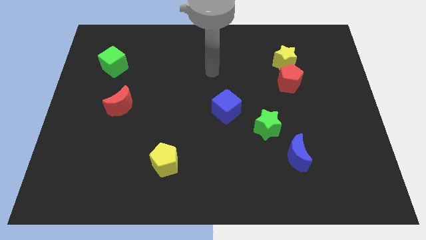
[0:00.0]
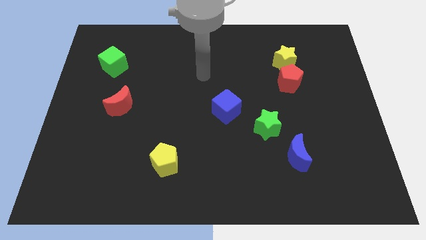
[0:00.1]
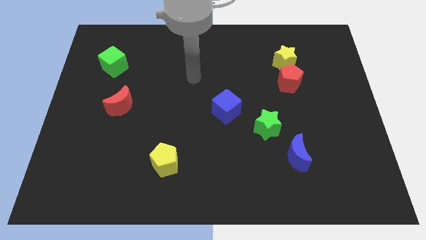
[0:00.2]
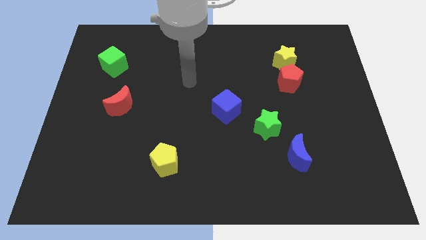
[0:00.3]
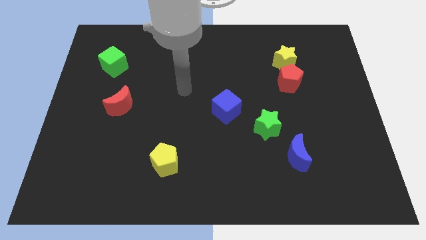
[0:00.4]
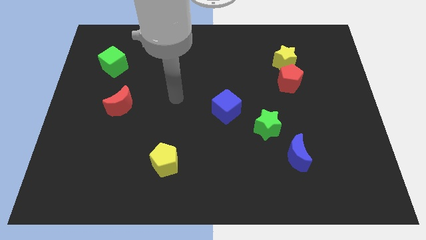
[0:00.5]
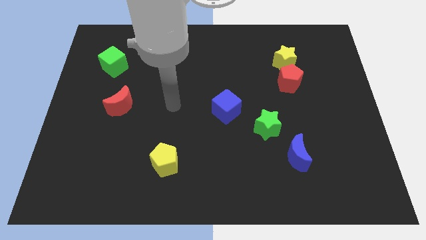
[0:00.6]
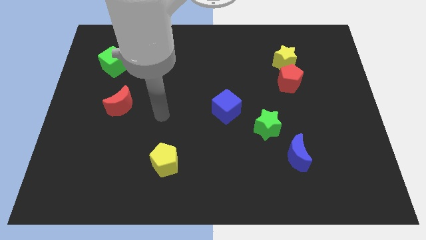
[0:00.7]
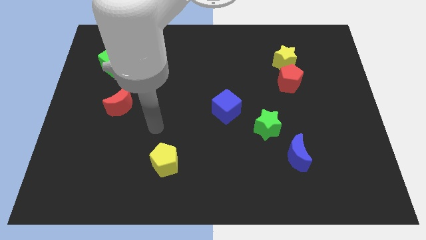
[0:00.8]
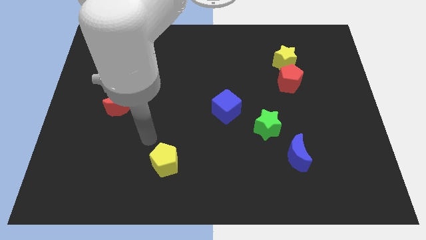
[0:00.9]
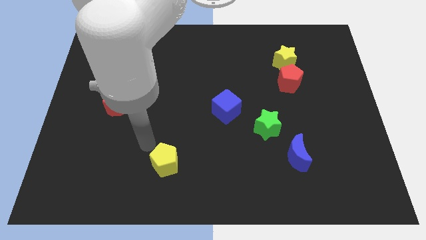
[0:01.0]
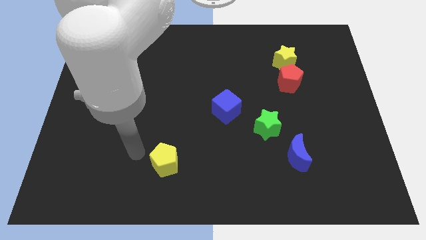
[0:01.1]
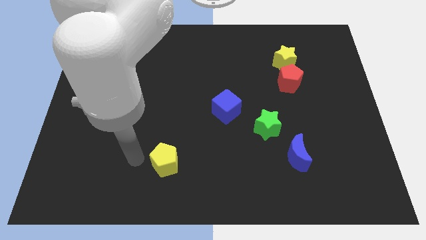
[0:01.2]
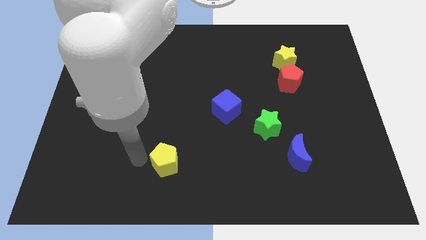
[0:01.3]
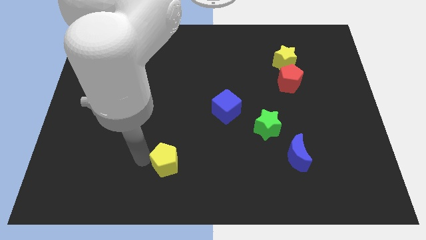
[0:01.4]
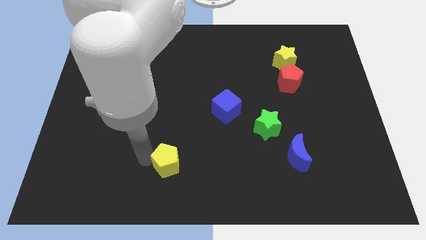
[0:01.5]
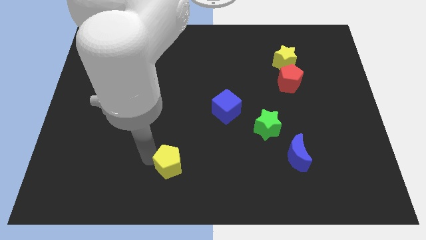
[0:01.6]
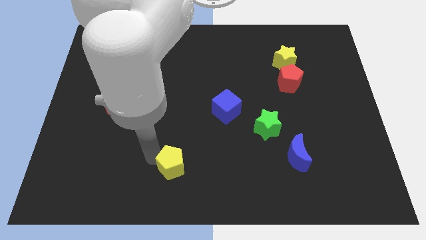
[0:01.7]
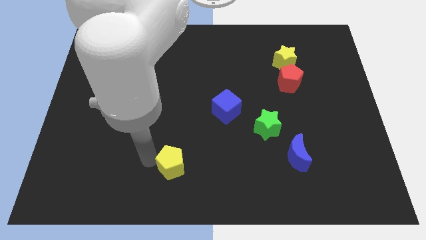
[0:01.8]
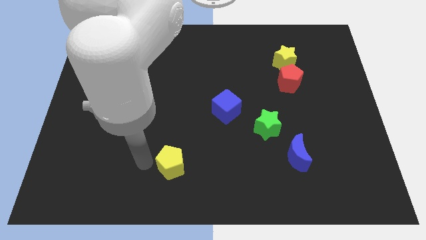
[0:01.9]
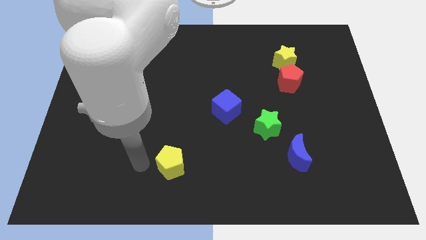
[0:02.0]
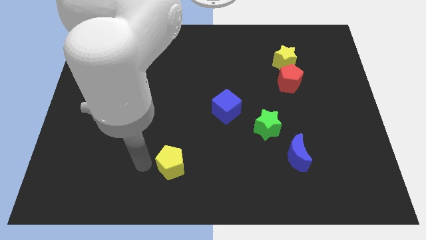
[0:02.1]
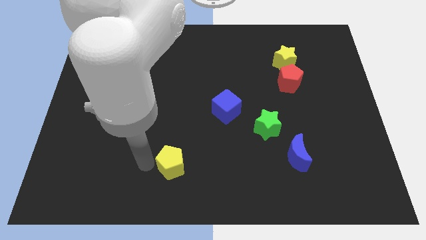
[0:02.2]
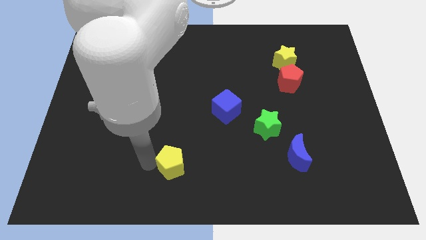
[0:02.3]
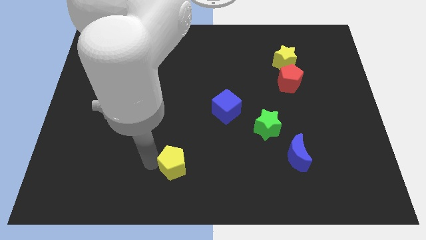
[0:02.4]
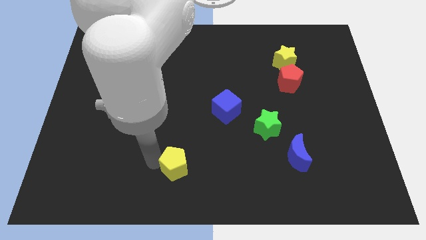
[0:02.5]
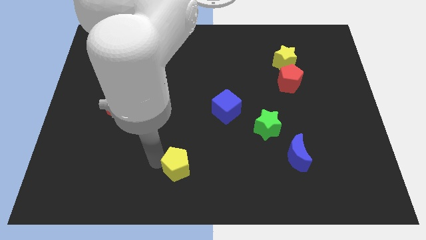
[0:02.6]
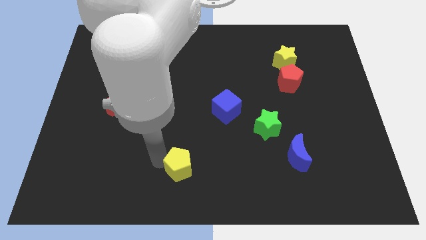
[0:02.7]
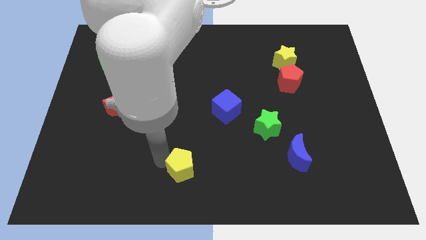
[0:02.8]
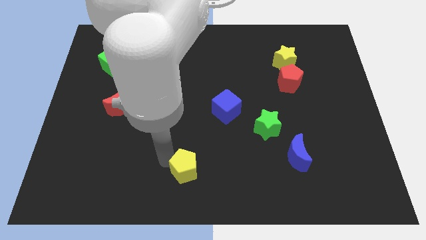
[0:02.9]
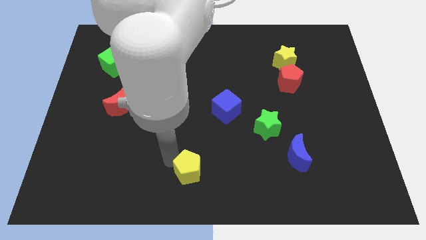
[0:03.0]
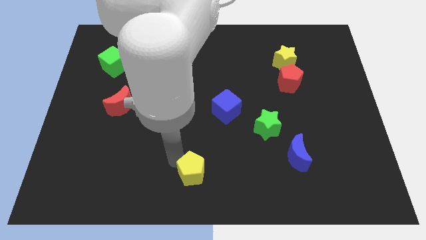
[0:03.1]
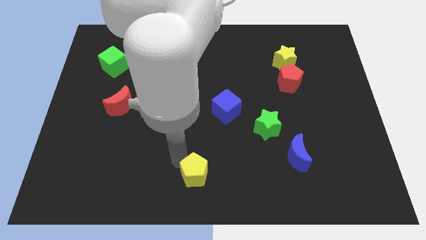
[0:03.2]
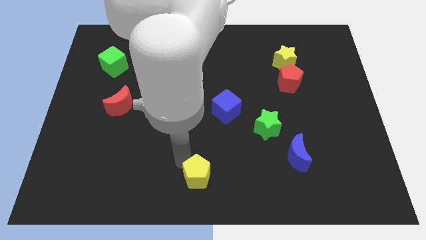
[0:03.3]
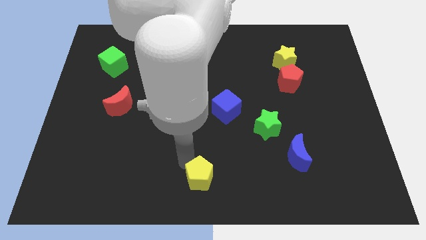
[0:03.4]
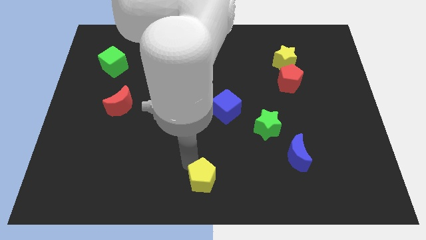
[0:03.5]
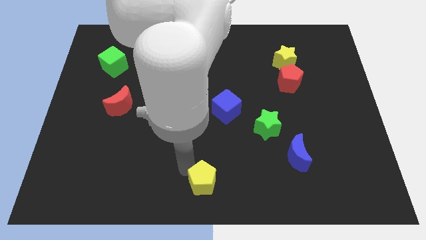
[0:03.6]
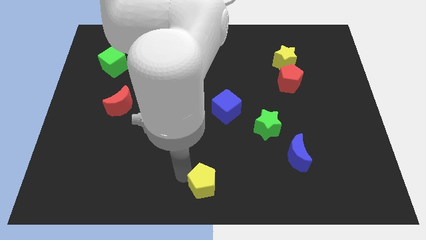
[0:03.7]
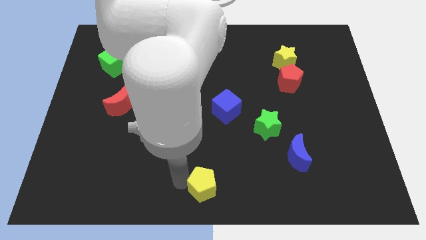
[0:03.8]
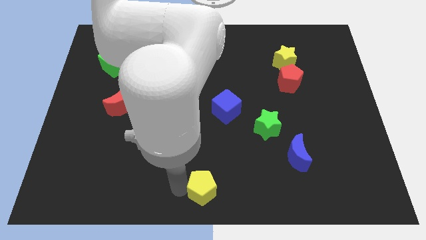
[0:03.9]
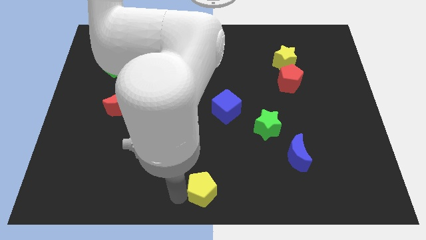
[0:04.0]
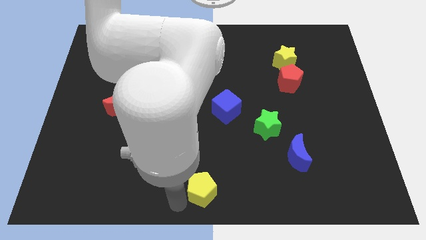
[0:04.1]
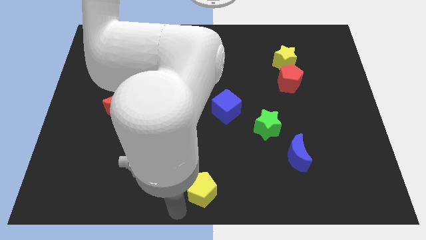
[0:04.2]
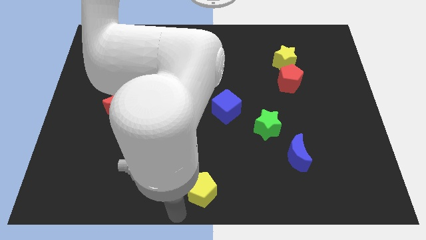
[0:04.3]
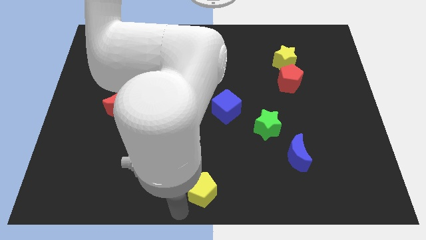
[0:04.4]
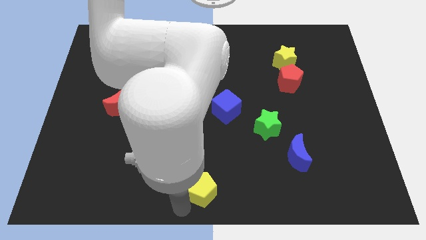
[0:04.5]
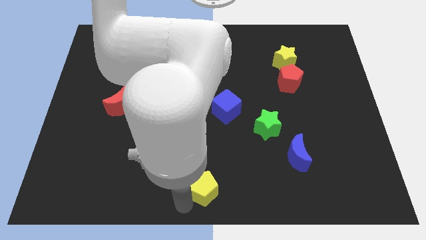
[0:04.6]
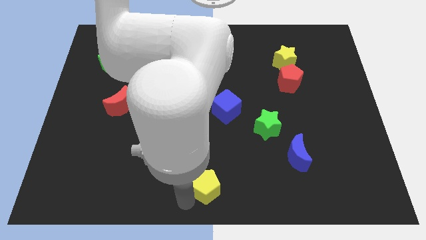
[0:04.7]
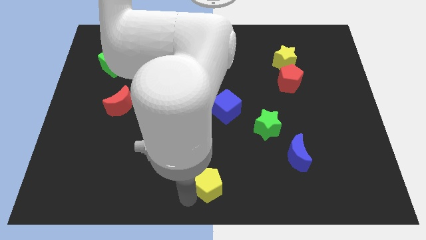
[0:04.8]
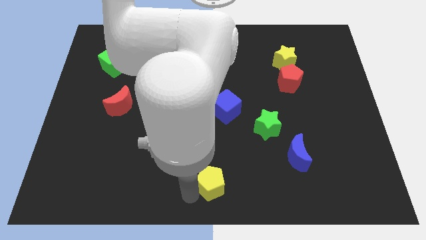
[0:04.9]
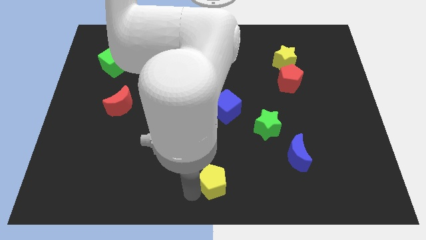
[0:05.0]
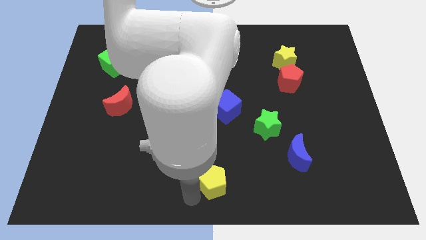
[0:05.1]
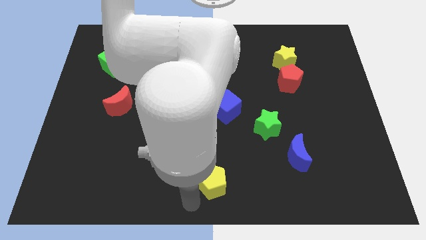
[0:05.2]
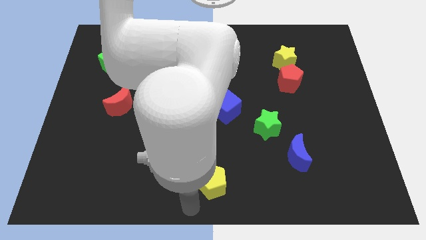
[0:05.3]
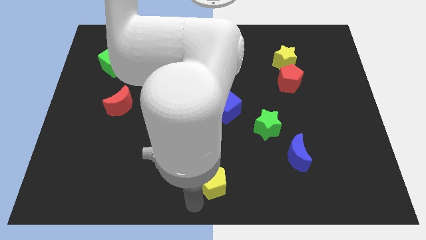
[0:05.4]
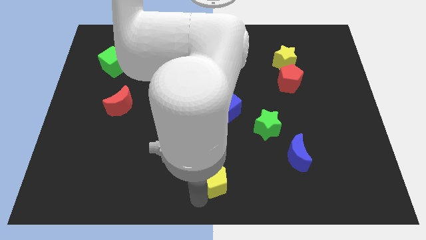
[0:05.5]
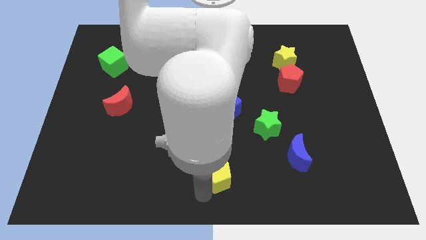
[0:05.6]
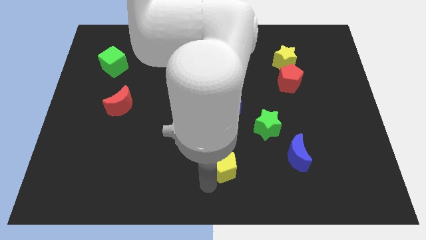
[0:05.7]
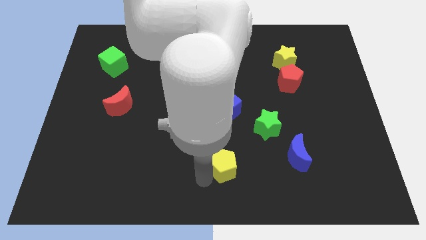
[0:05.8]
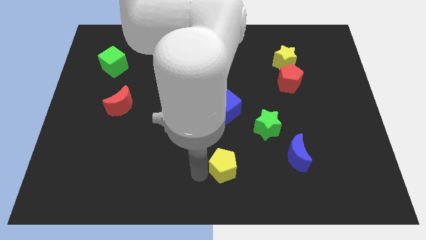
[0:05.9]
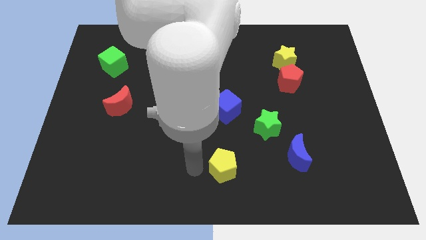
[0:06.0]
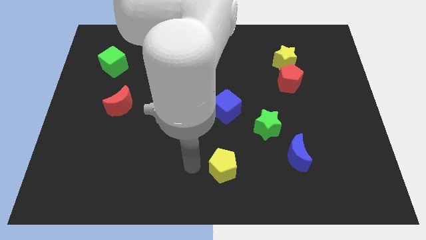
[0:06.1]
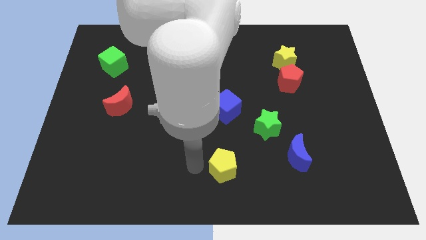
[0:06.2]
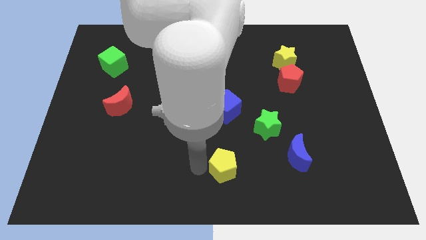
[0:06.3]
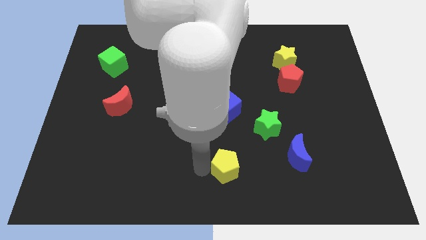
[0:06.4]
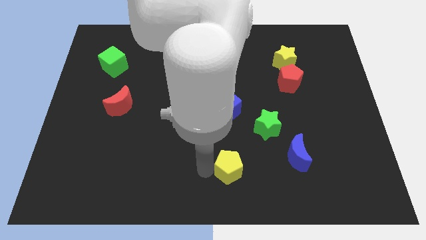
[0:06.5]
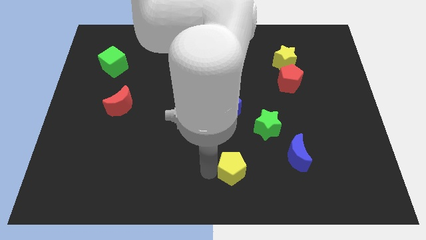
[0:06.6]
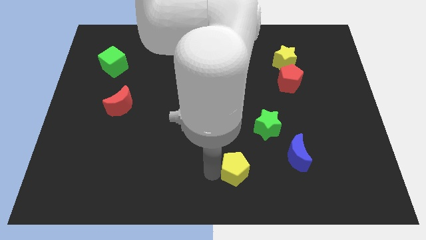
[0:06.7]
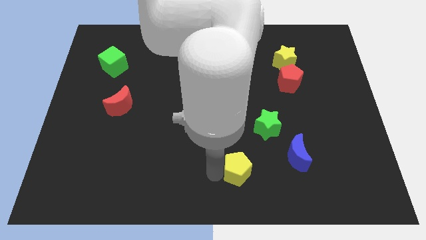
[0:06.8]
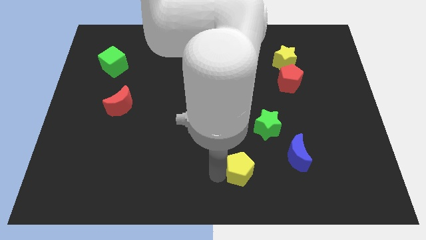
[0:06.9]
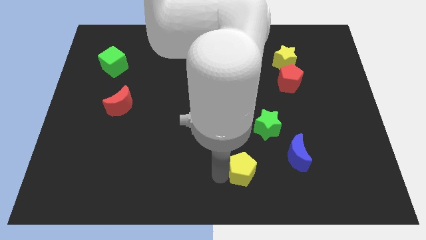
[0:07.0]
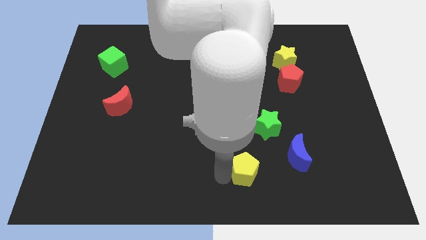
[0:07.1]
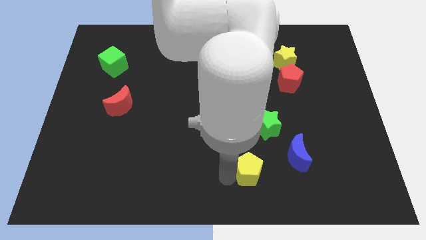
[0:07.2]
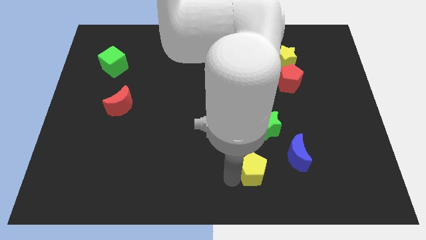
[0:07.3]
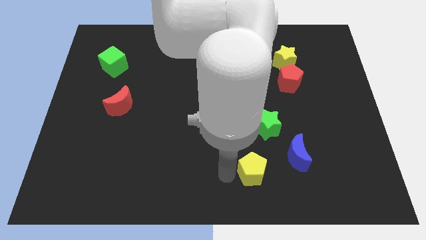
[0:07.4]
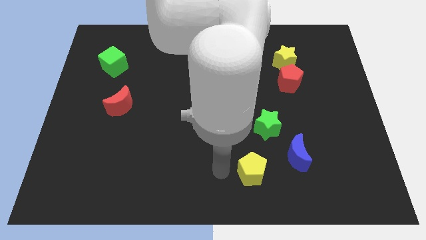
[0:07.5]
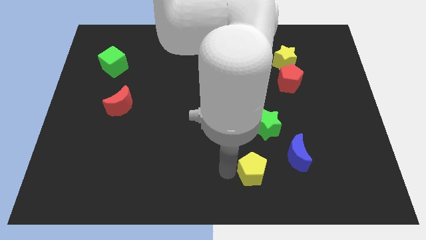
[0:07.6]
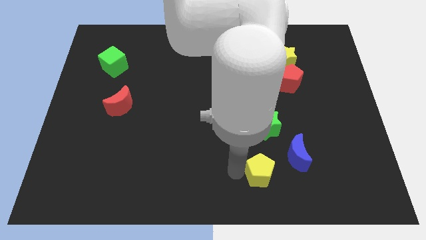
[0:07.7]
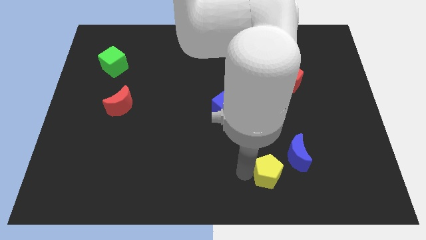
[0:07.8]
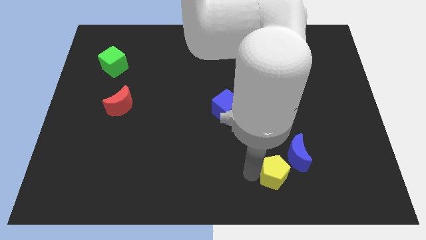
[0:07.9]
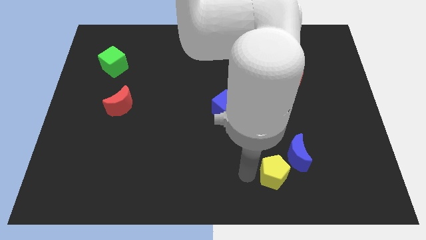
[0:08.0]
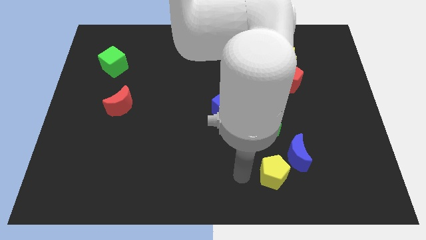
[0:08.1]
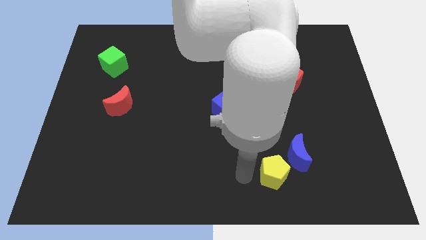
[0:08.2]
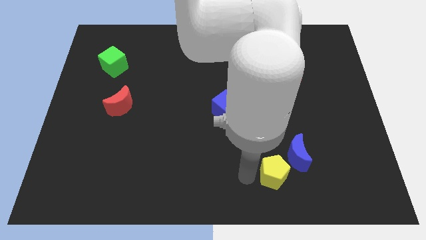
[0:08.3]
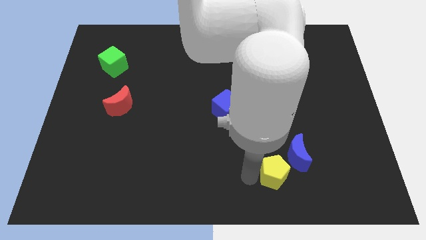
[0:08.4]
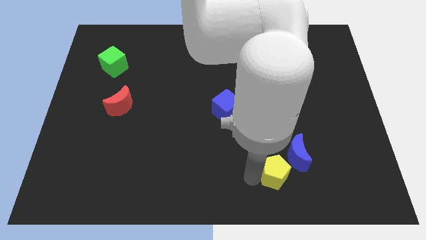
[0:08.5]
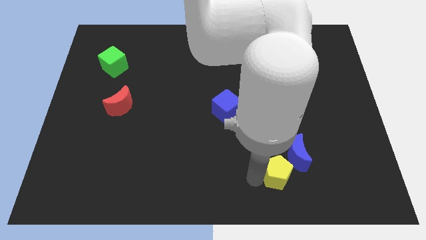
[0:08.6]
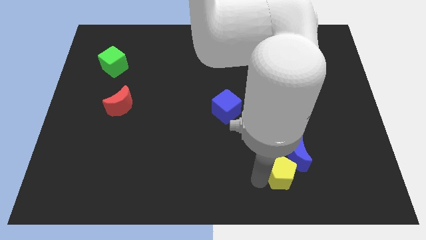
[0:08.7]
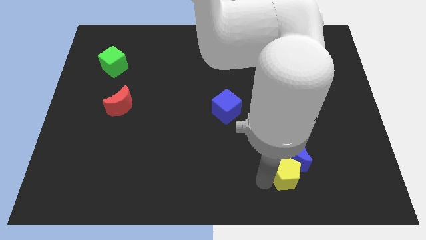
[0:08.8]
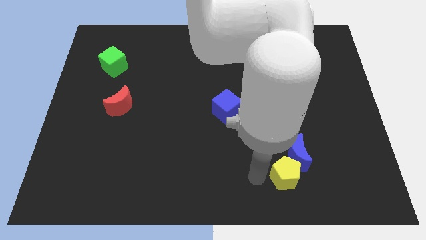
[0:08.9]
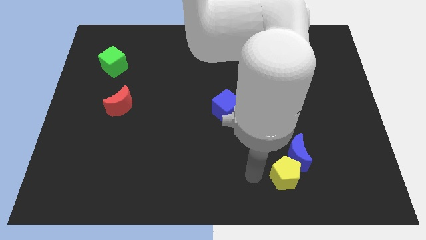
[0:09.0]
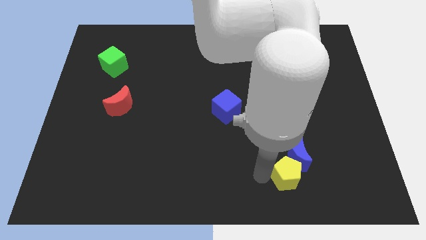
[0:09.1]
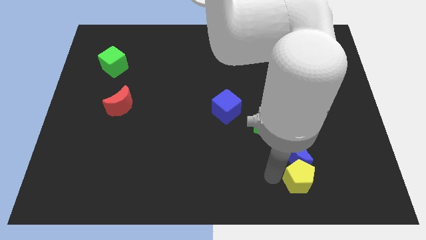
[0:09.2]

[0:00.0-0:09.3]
slide the yellow pentagon to the bottom right of the blue moon
